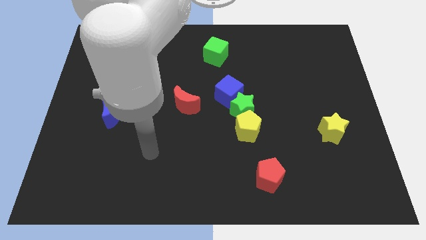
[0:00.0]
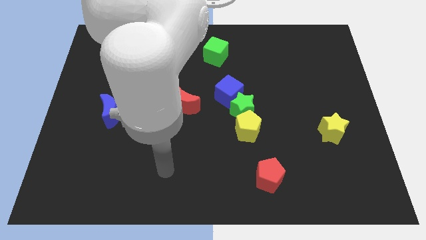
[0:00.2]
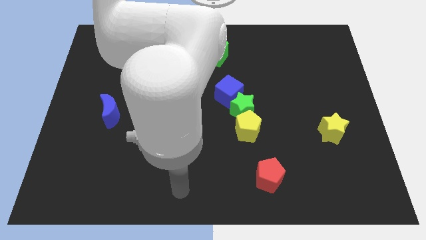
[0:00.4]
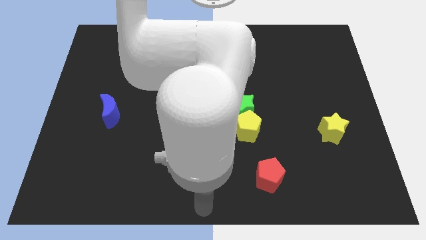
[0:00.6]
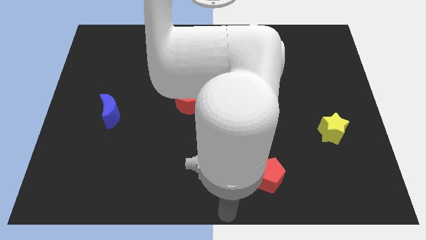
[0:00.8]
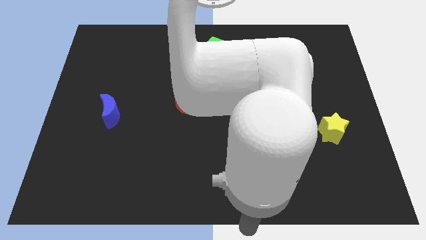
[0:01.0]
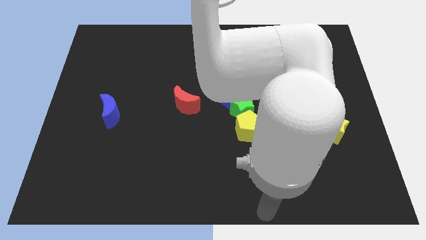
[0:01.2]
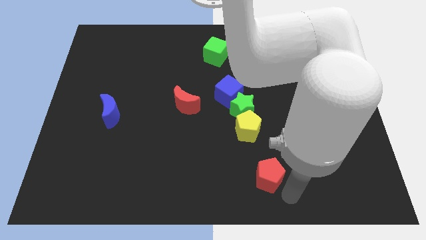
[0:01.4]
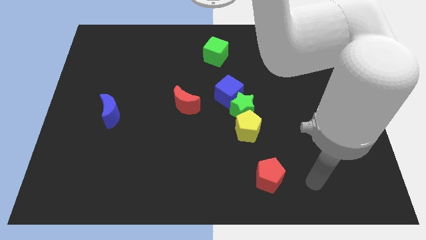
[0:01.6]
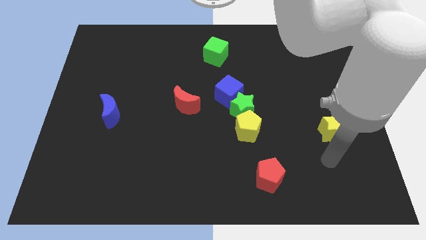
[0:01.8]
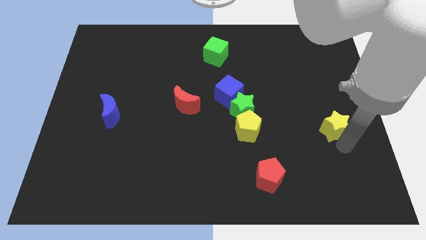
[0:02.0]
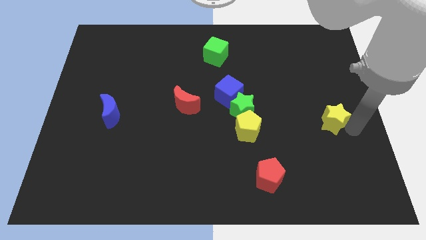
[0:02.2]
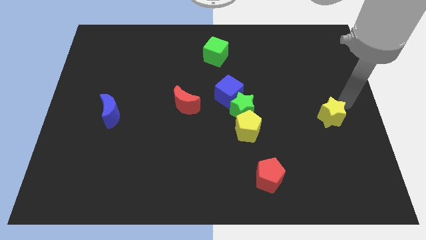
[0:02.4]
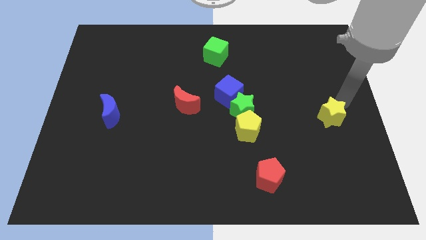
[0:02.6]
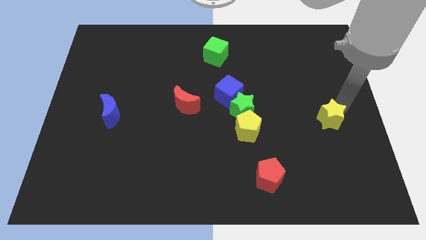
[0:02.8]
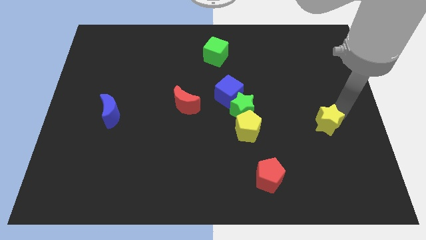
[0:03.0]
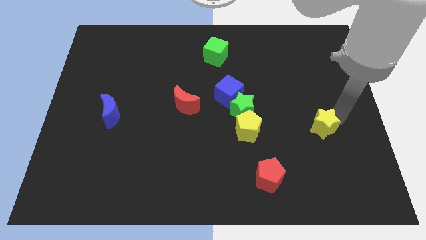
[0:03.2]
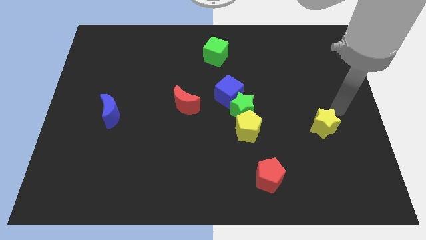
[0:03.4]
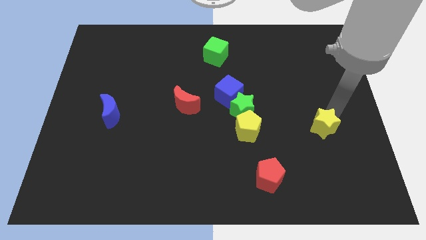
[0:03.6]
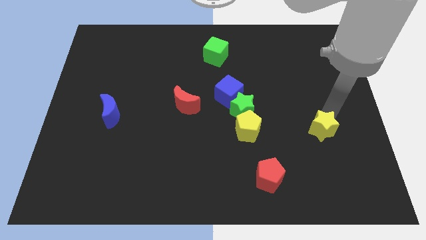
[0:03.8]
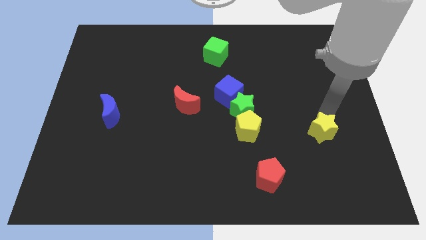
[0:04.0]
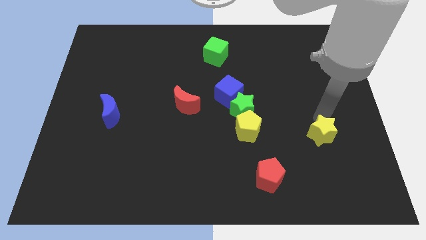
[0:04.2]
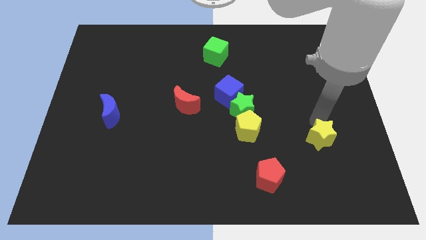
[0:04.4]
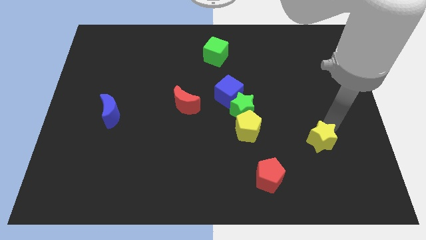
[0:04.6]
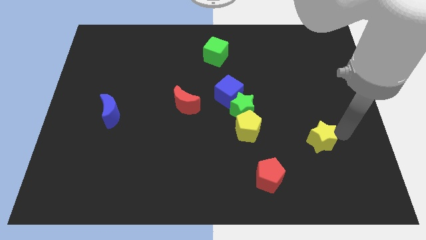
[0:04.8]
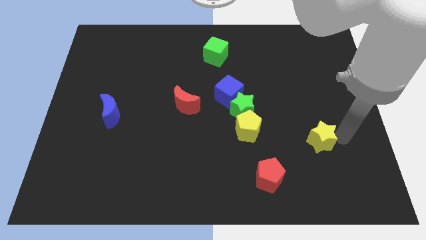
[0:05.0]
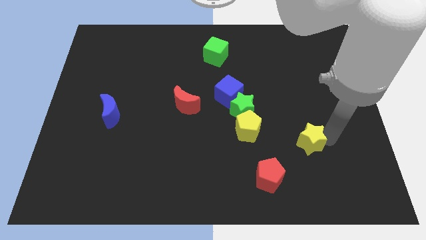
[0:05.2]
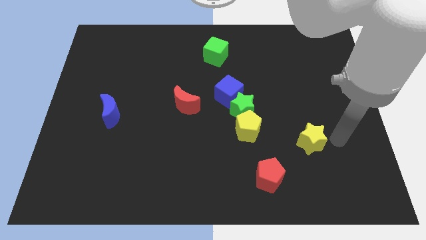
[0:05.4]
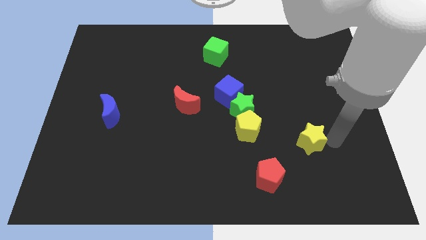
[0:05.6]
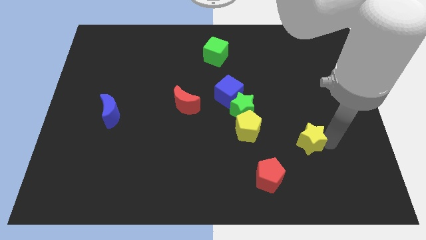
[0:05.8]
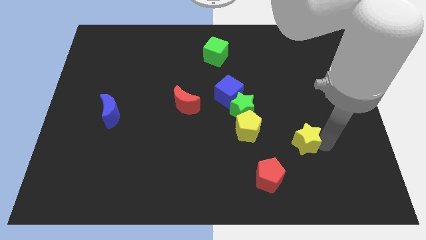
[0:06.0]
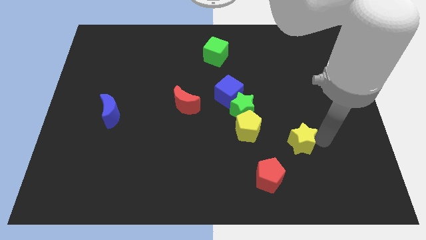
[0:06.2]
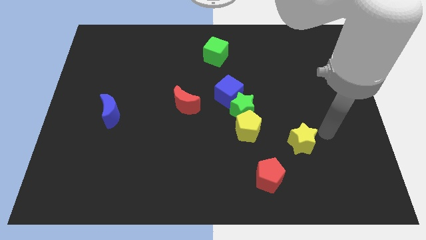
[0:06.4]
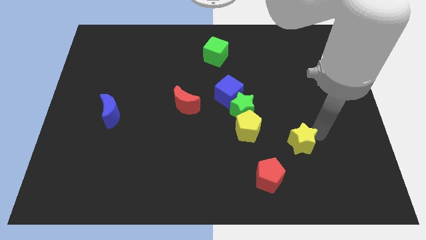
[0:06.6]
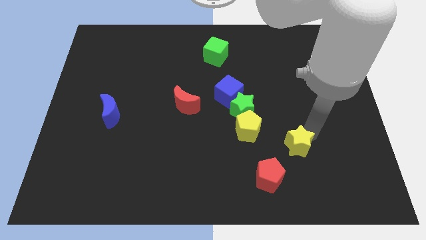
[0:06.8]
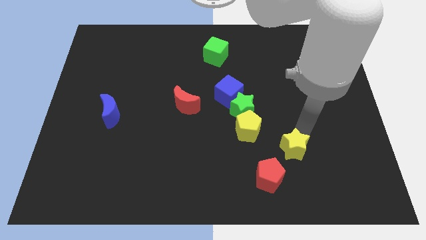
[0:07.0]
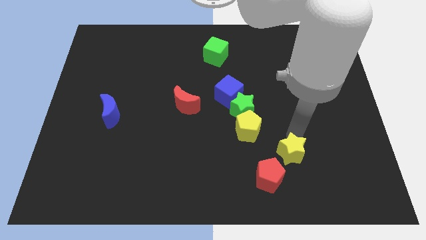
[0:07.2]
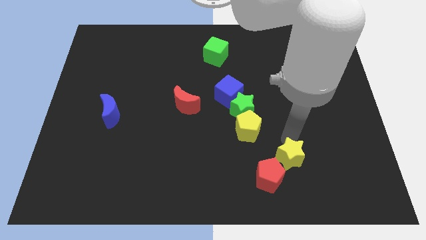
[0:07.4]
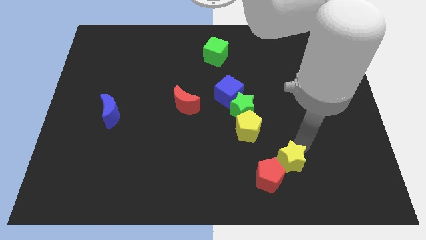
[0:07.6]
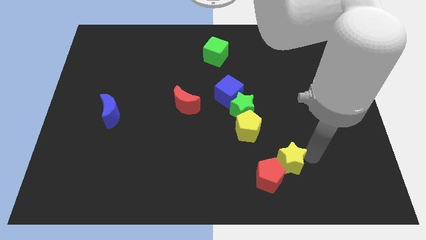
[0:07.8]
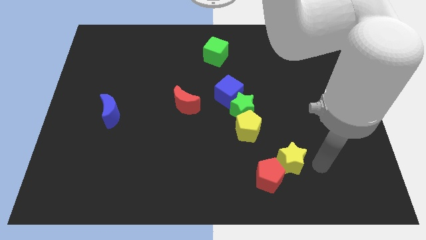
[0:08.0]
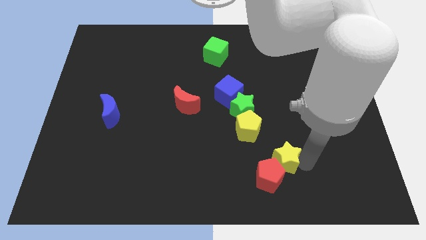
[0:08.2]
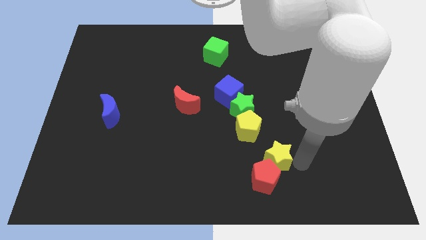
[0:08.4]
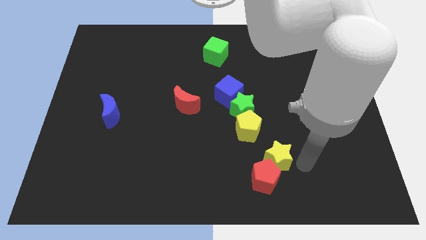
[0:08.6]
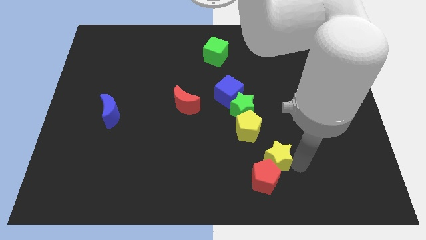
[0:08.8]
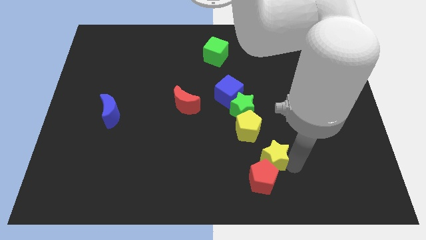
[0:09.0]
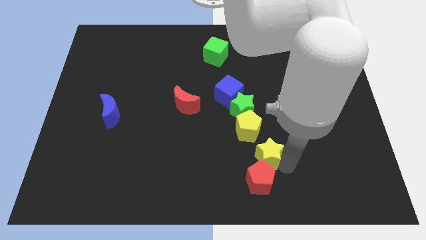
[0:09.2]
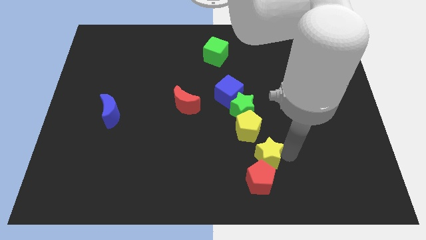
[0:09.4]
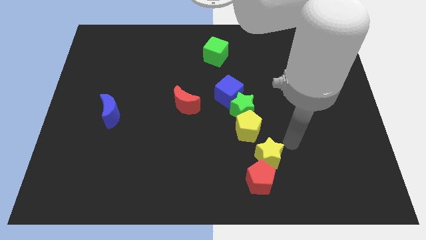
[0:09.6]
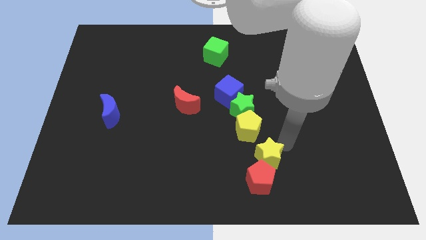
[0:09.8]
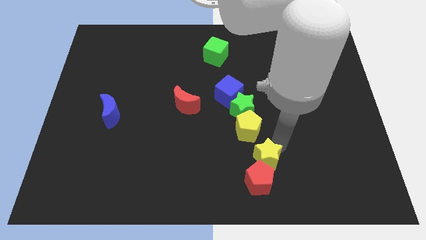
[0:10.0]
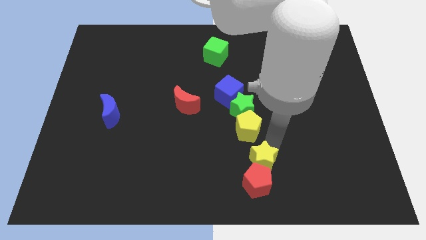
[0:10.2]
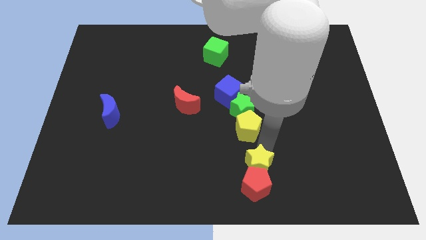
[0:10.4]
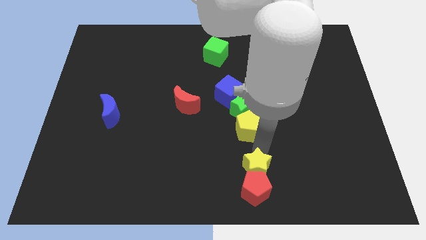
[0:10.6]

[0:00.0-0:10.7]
slide the yellow star to the bottom side

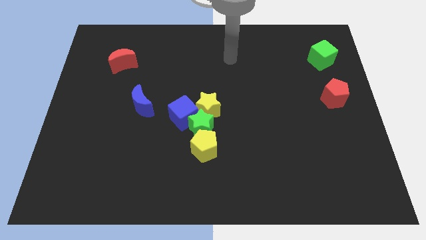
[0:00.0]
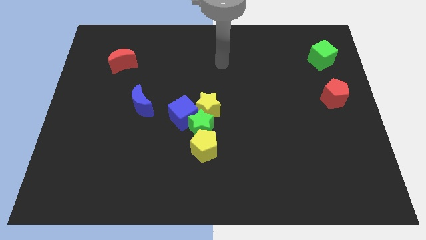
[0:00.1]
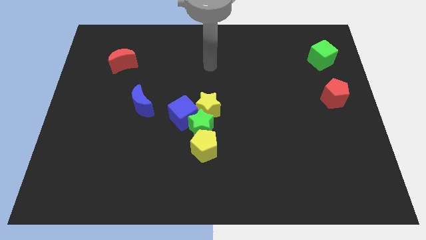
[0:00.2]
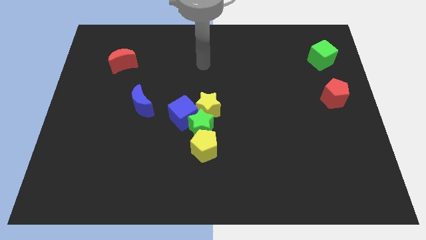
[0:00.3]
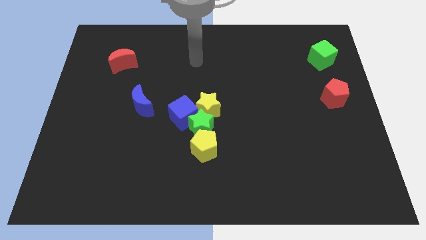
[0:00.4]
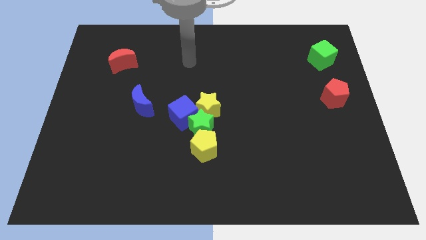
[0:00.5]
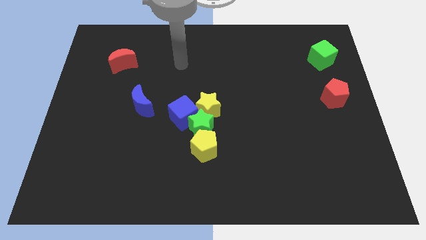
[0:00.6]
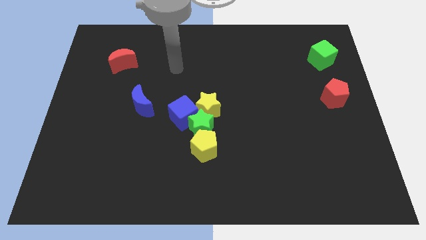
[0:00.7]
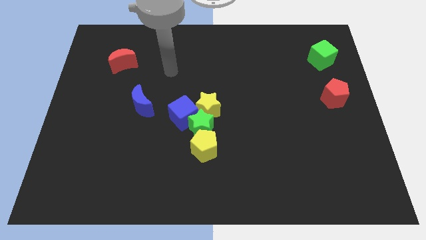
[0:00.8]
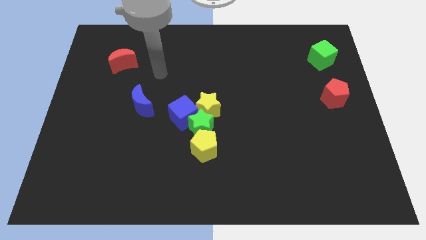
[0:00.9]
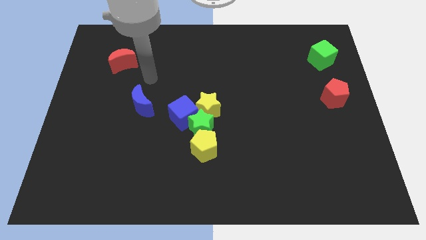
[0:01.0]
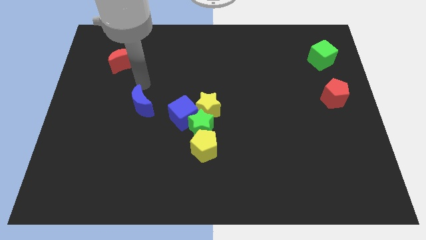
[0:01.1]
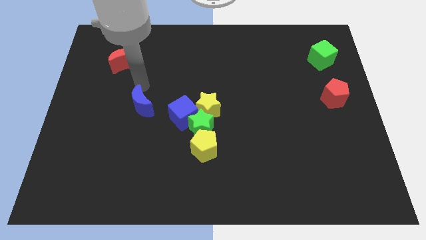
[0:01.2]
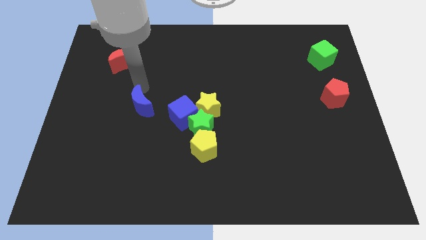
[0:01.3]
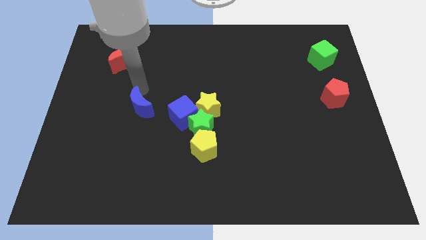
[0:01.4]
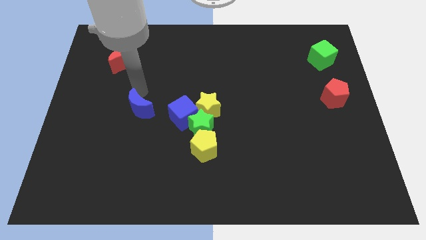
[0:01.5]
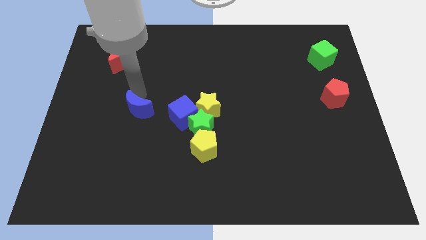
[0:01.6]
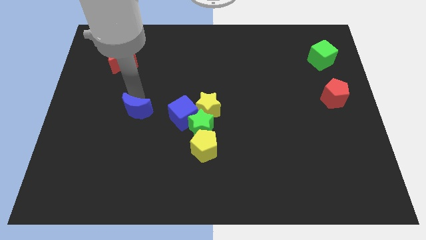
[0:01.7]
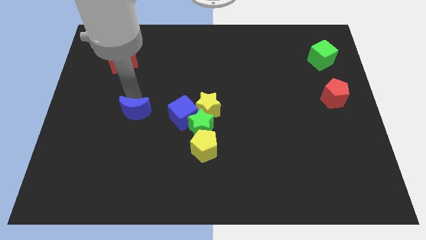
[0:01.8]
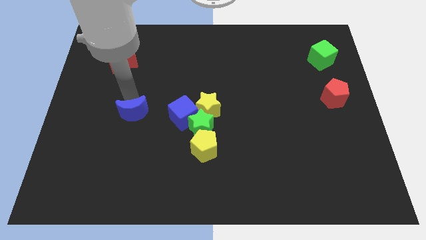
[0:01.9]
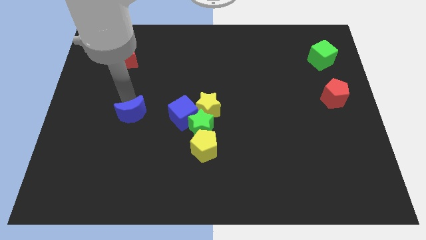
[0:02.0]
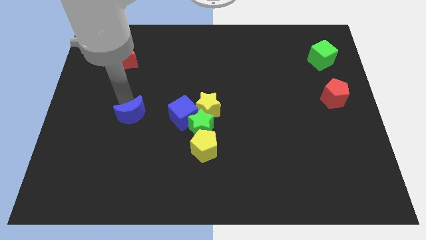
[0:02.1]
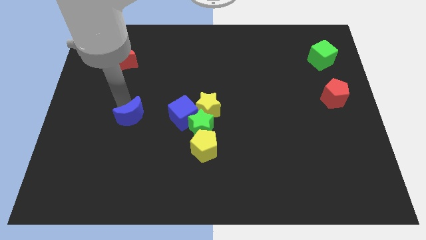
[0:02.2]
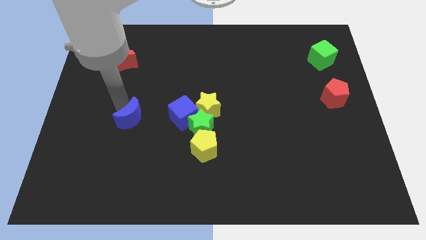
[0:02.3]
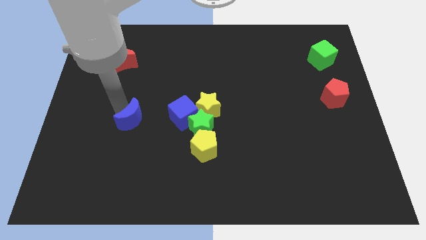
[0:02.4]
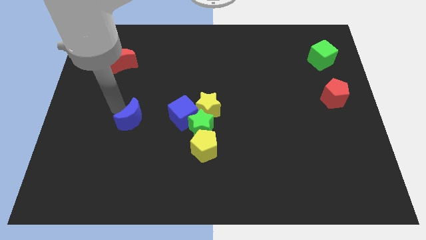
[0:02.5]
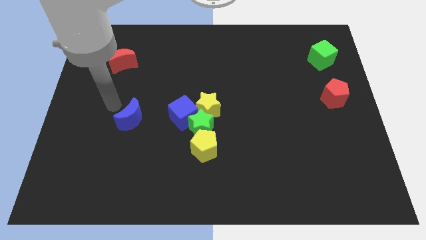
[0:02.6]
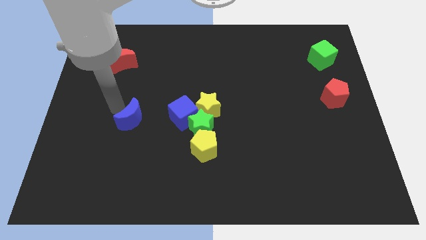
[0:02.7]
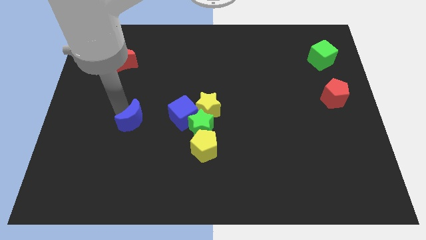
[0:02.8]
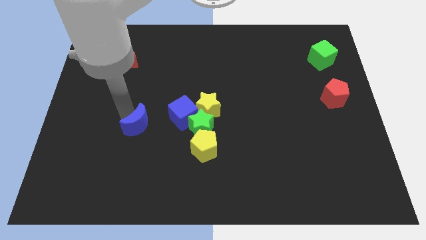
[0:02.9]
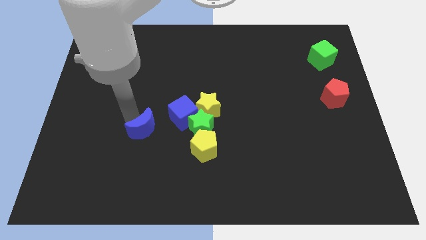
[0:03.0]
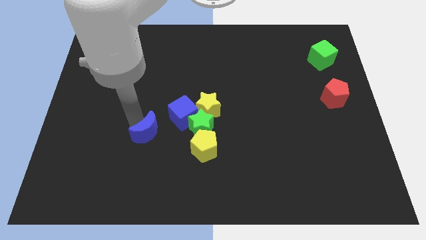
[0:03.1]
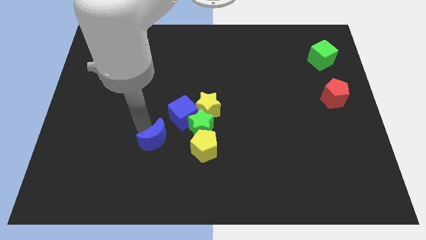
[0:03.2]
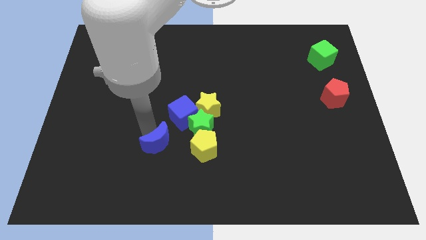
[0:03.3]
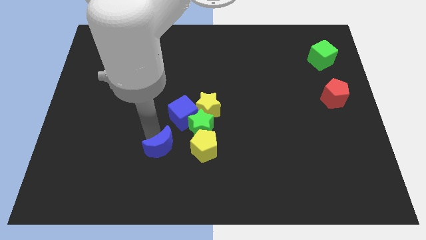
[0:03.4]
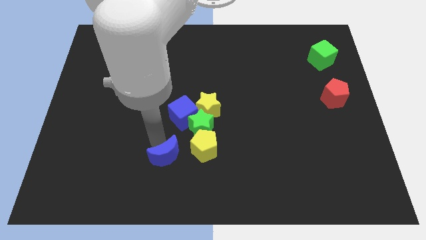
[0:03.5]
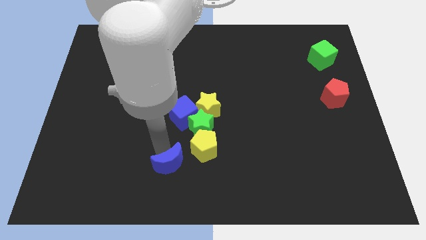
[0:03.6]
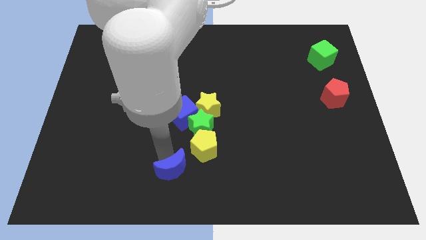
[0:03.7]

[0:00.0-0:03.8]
push the blue moon to the bottom side
